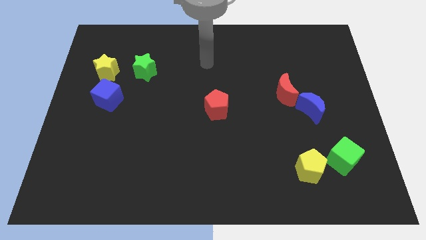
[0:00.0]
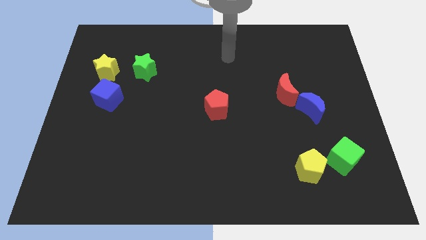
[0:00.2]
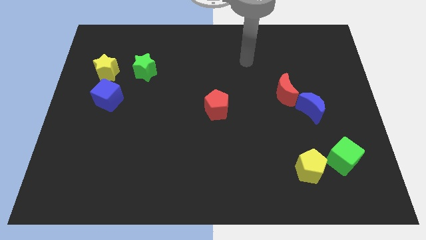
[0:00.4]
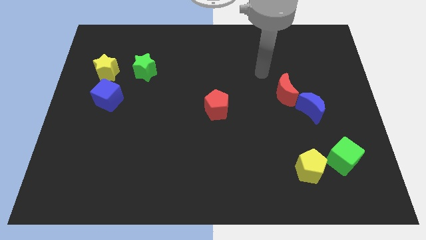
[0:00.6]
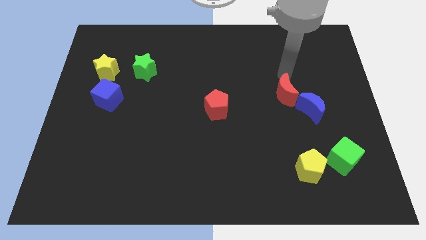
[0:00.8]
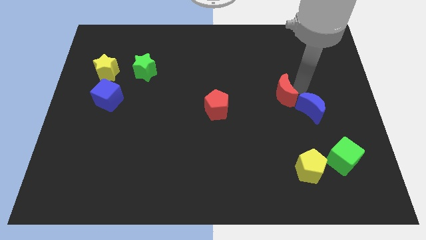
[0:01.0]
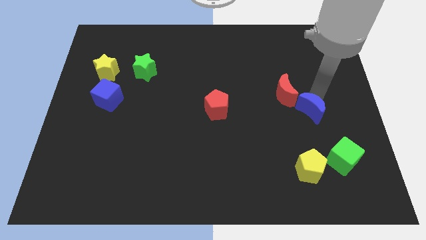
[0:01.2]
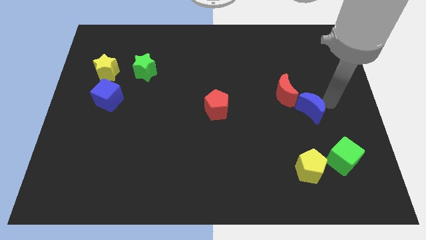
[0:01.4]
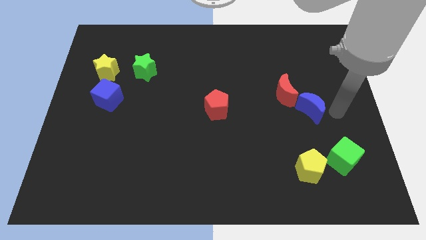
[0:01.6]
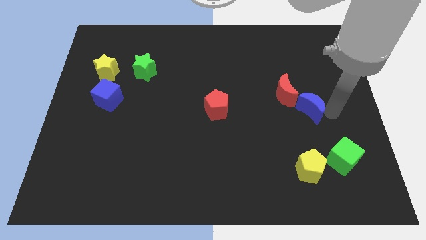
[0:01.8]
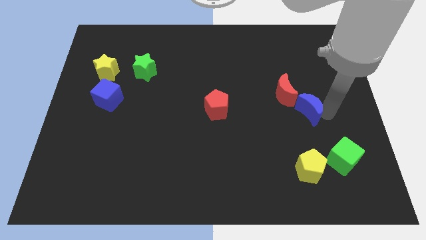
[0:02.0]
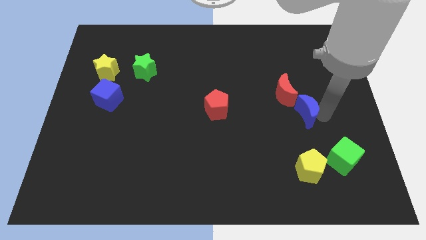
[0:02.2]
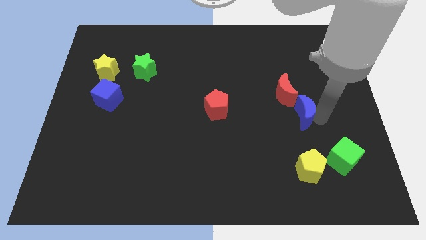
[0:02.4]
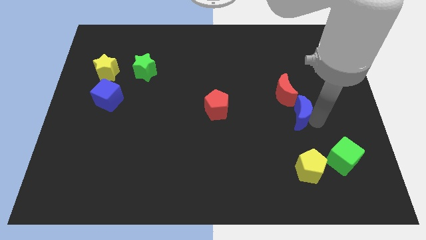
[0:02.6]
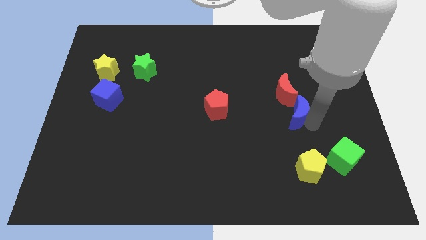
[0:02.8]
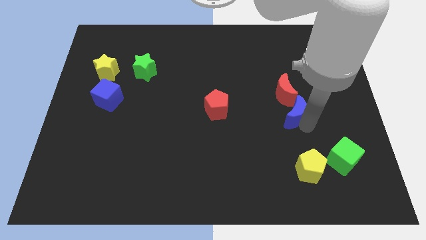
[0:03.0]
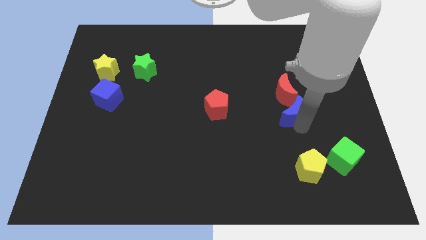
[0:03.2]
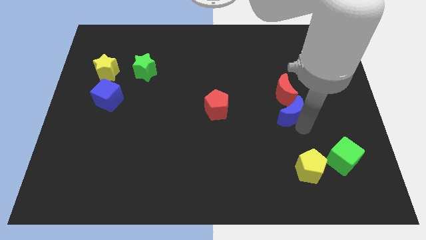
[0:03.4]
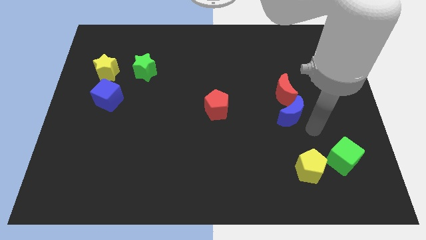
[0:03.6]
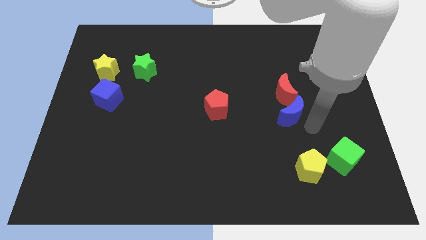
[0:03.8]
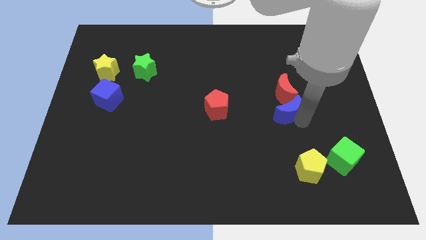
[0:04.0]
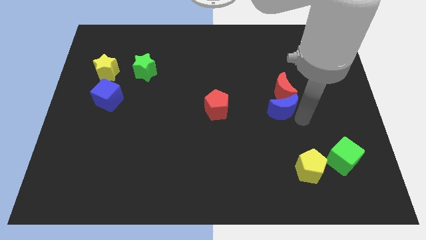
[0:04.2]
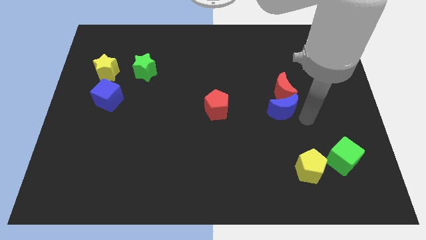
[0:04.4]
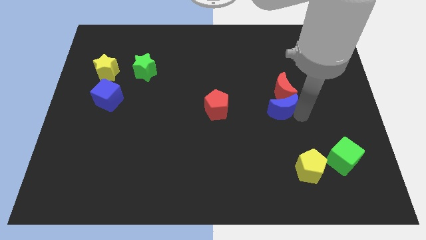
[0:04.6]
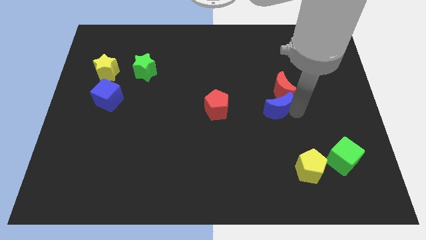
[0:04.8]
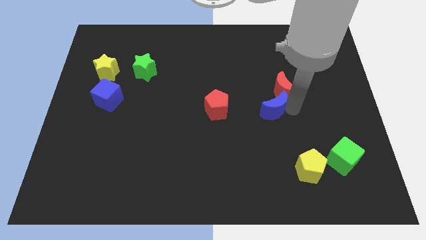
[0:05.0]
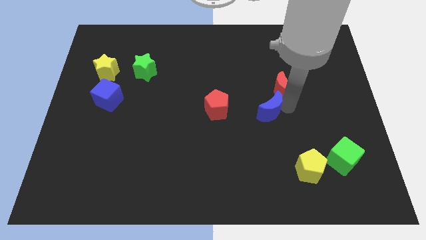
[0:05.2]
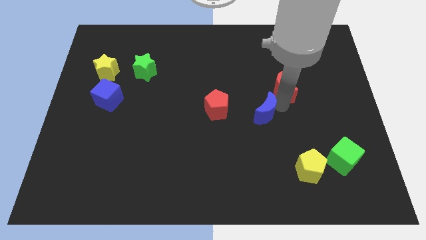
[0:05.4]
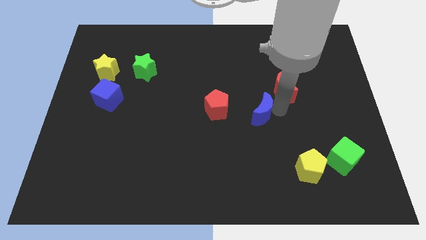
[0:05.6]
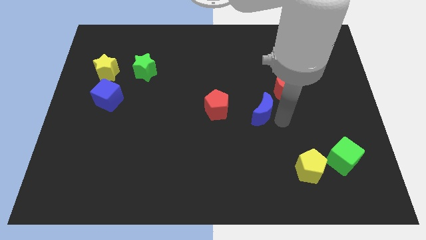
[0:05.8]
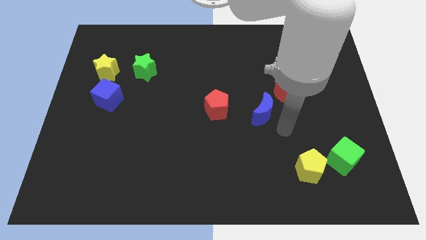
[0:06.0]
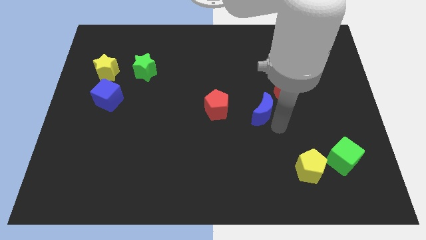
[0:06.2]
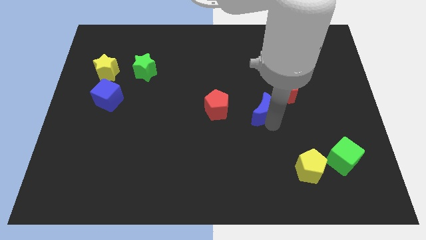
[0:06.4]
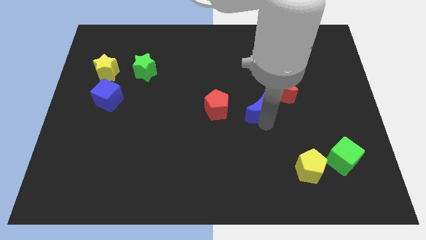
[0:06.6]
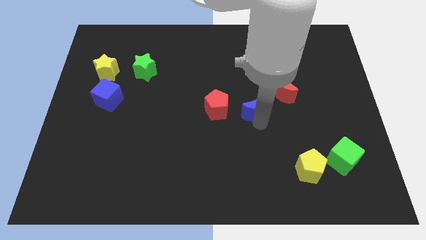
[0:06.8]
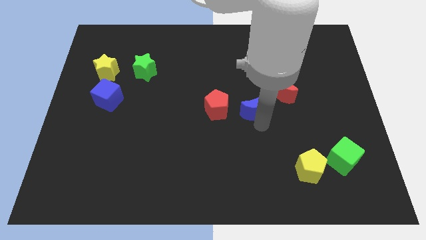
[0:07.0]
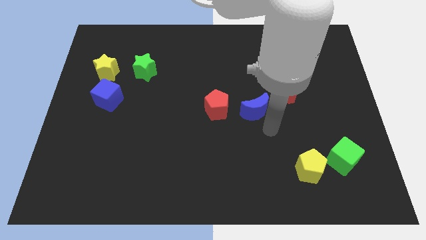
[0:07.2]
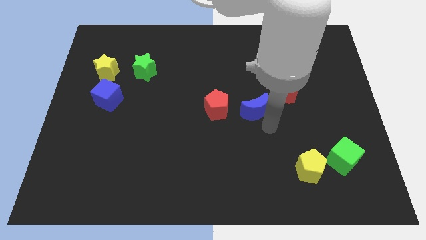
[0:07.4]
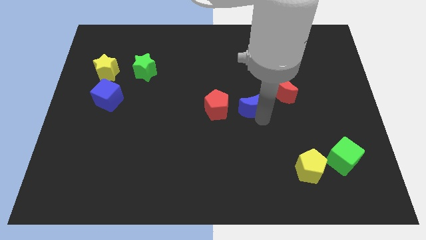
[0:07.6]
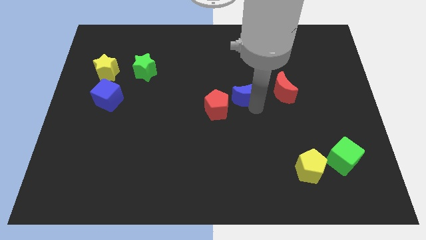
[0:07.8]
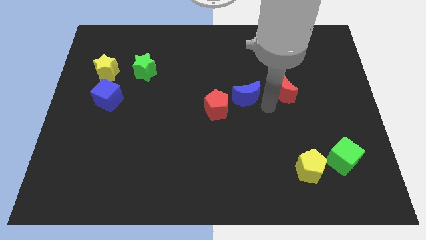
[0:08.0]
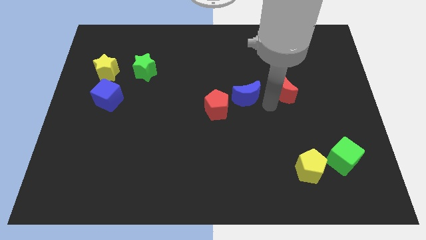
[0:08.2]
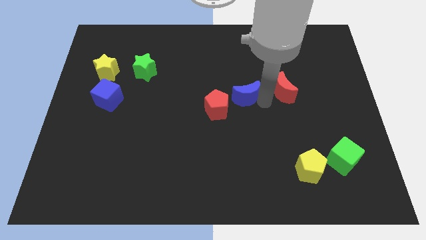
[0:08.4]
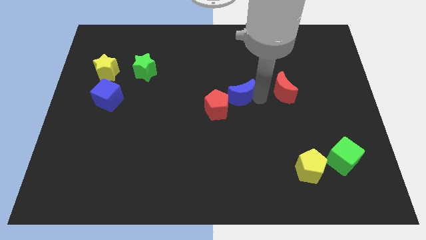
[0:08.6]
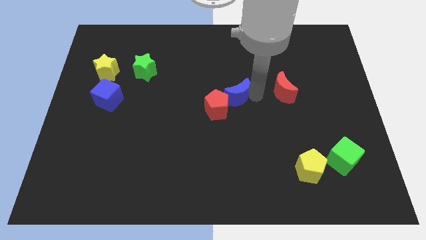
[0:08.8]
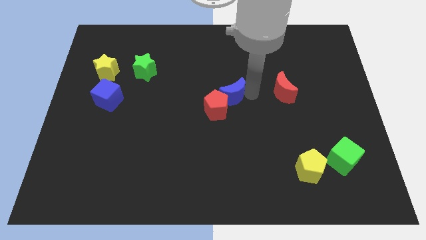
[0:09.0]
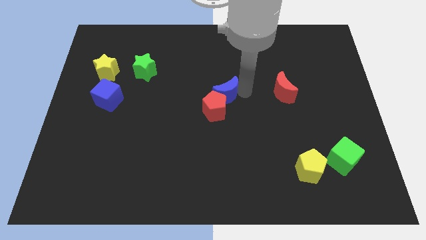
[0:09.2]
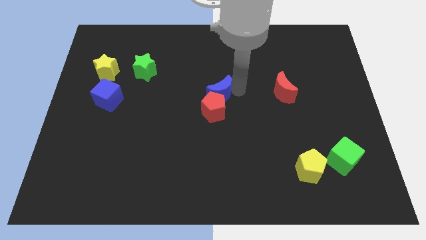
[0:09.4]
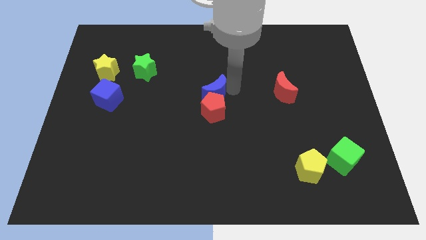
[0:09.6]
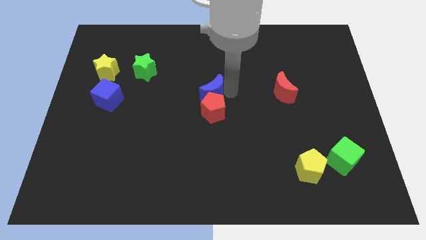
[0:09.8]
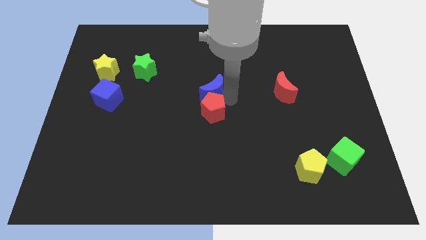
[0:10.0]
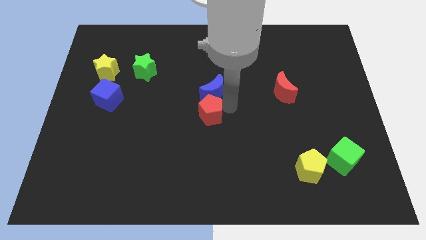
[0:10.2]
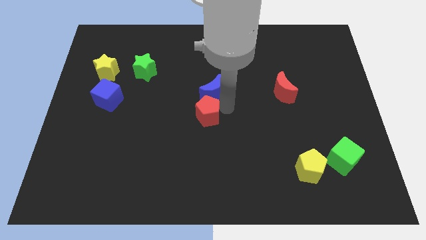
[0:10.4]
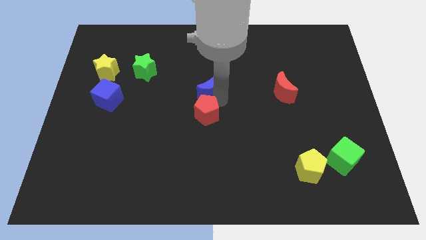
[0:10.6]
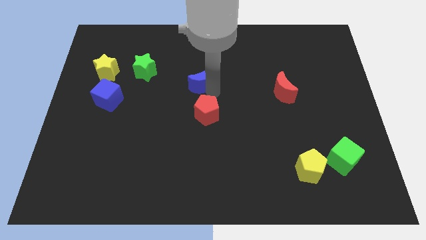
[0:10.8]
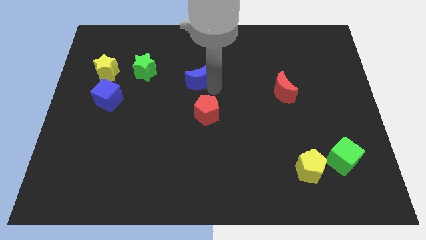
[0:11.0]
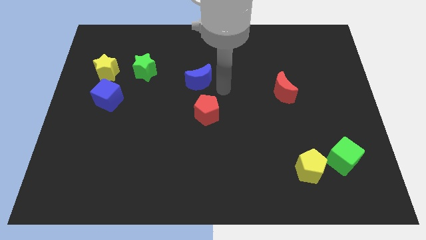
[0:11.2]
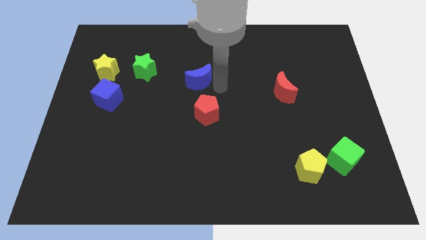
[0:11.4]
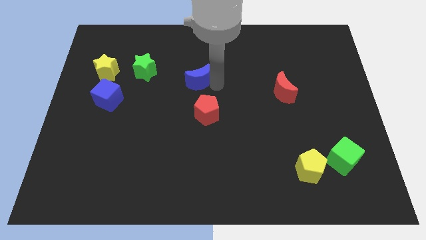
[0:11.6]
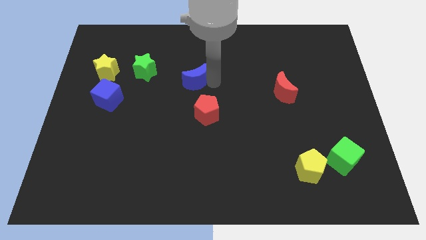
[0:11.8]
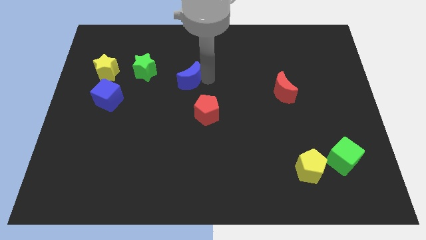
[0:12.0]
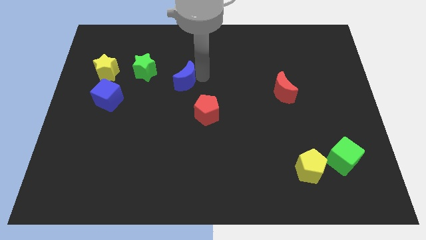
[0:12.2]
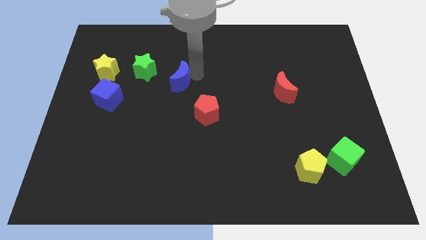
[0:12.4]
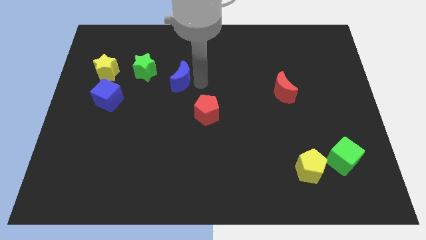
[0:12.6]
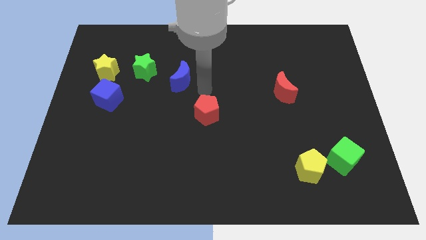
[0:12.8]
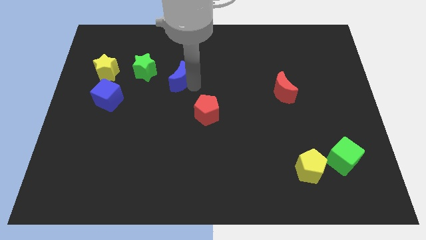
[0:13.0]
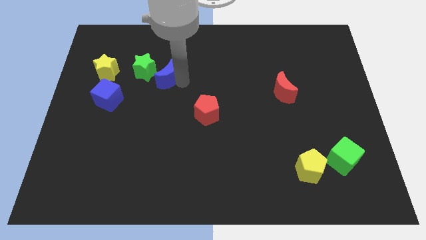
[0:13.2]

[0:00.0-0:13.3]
push the blue moon right of the yellow star

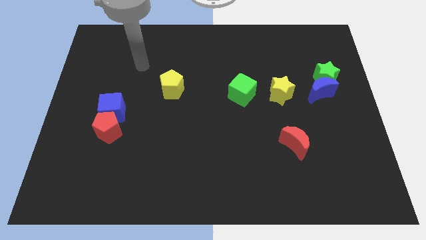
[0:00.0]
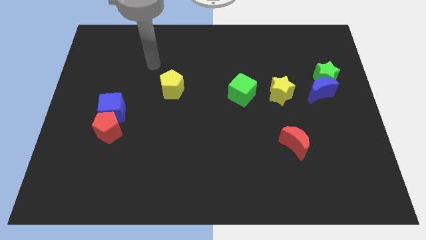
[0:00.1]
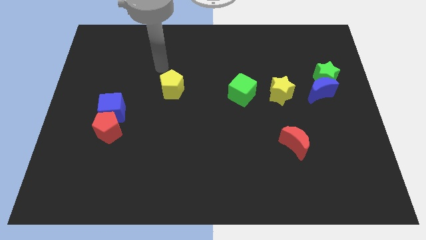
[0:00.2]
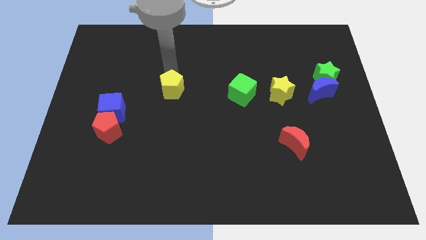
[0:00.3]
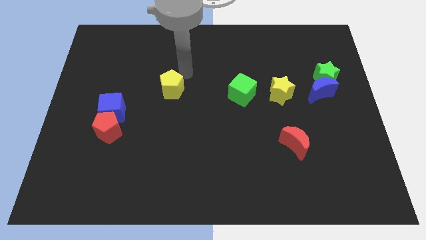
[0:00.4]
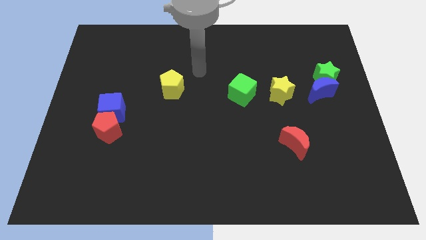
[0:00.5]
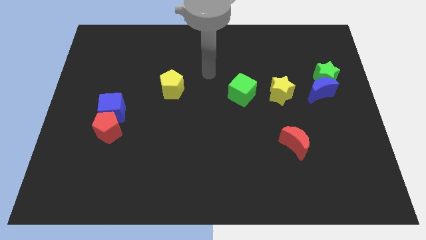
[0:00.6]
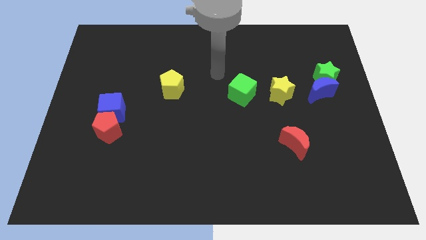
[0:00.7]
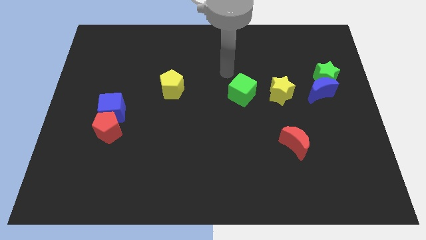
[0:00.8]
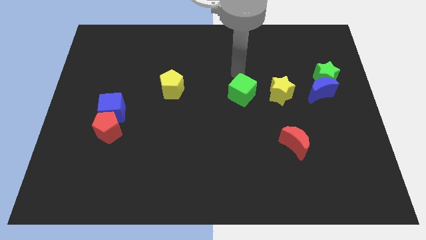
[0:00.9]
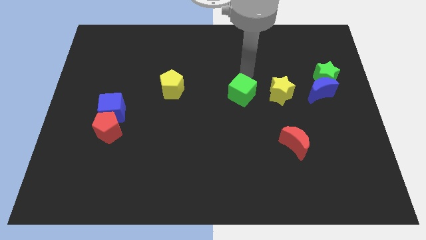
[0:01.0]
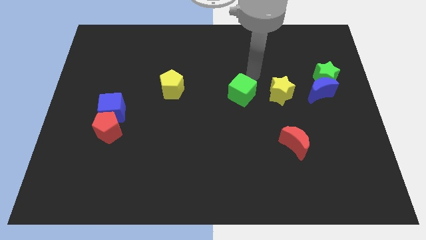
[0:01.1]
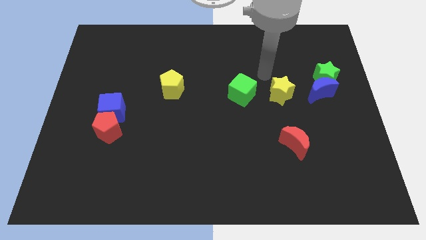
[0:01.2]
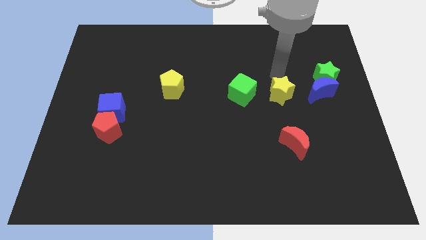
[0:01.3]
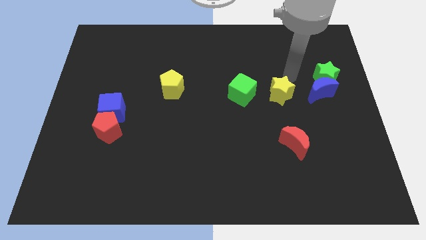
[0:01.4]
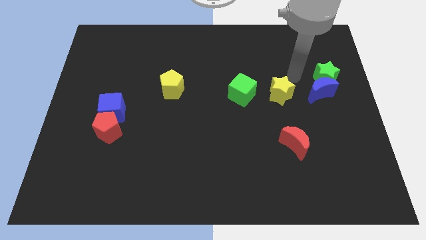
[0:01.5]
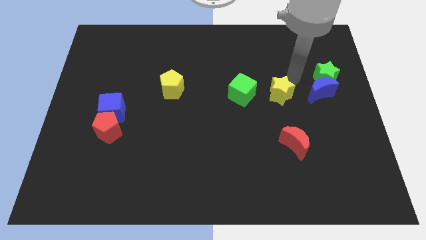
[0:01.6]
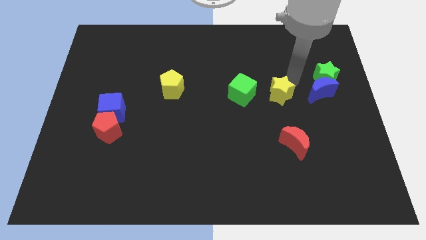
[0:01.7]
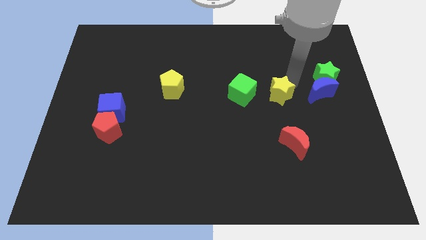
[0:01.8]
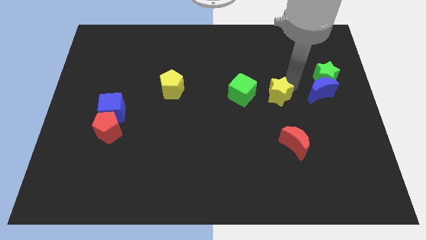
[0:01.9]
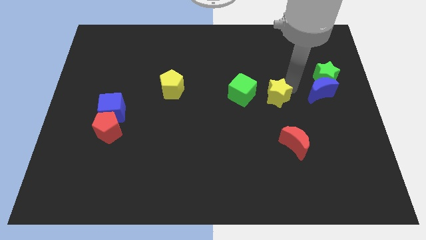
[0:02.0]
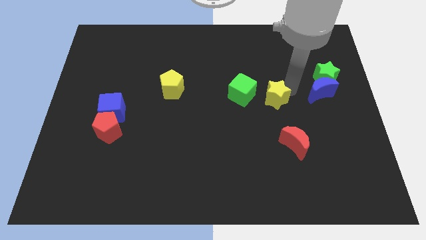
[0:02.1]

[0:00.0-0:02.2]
slide the yellow star to the bottom right side of the green cube
